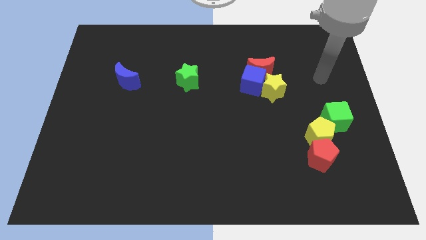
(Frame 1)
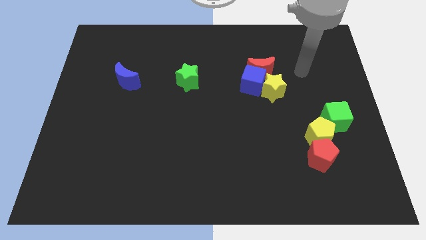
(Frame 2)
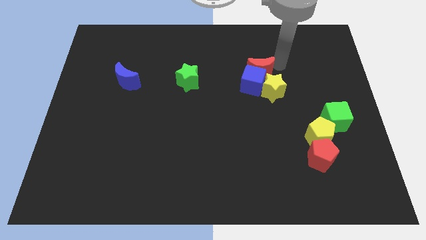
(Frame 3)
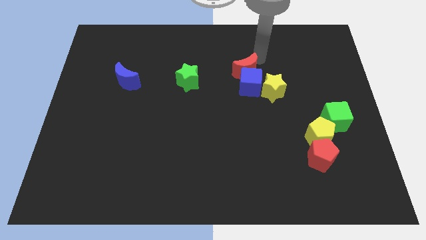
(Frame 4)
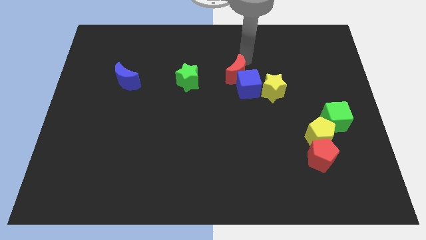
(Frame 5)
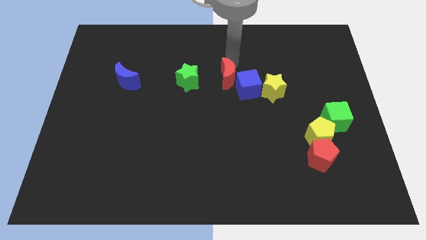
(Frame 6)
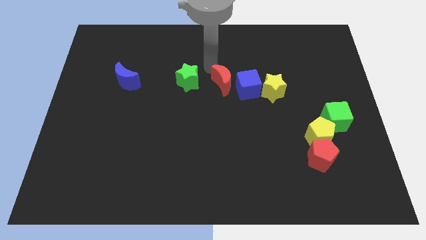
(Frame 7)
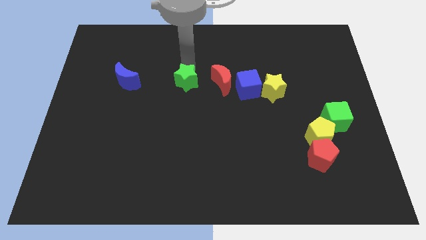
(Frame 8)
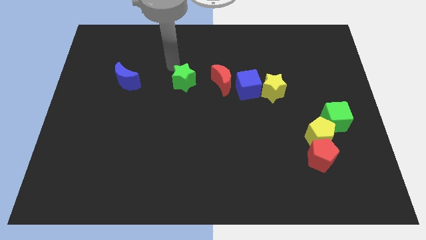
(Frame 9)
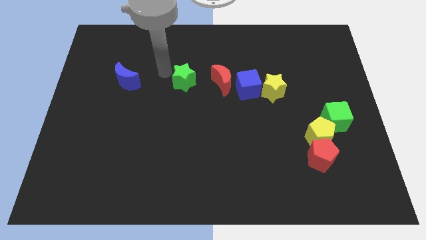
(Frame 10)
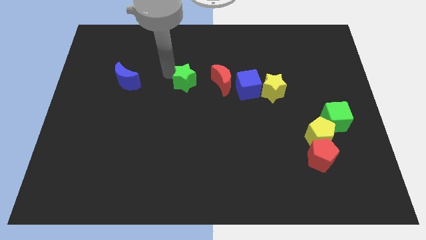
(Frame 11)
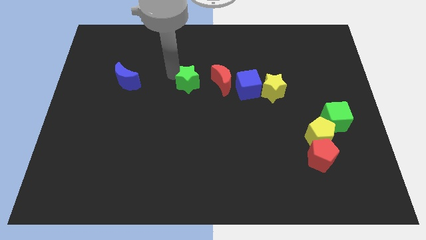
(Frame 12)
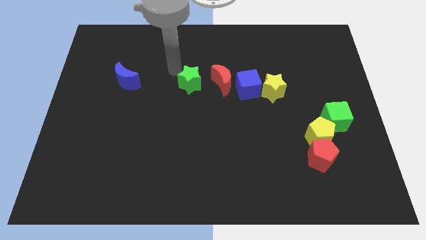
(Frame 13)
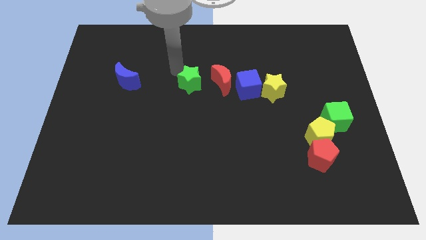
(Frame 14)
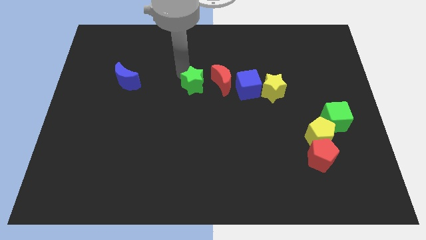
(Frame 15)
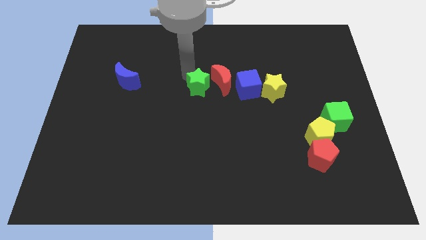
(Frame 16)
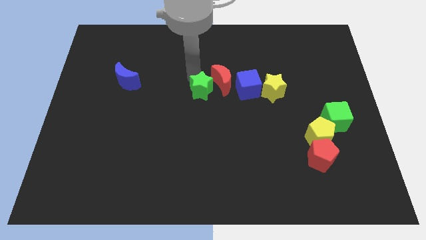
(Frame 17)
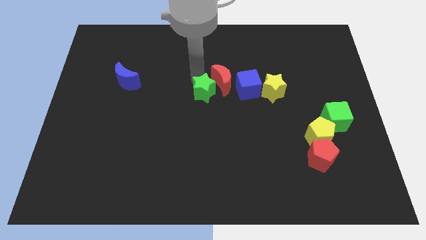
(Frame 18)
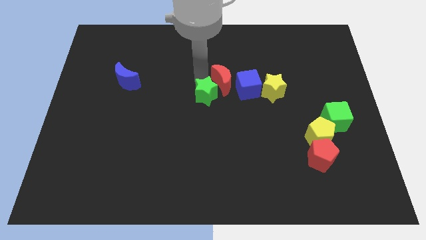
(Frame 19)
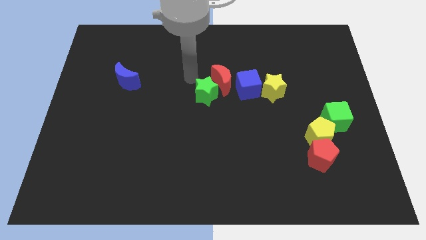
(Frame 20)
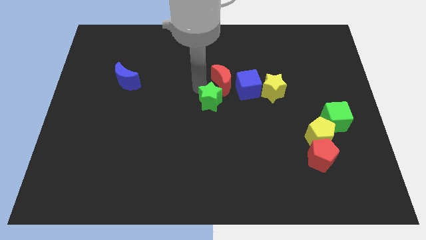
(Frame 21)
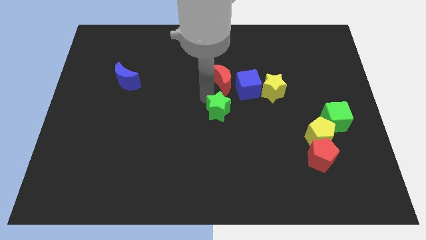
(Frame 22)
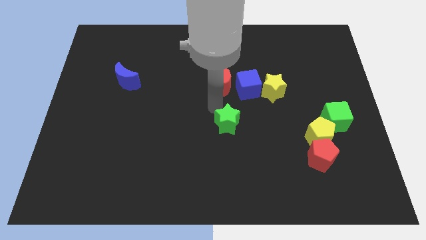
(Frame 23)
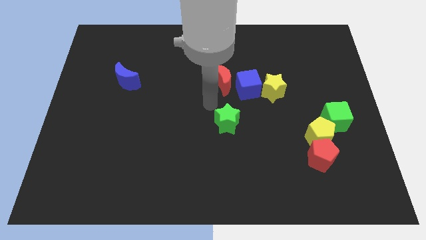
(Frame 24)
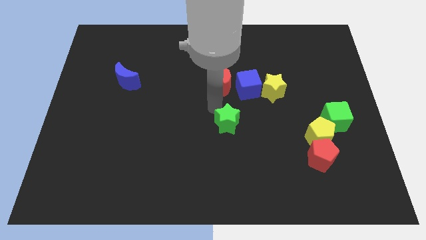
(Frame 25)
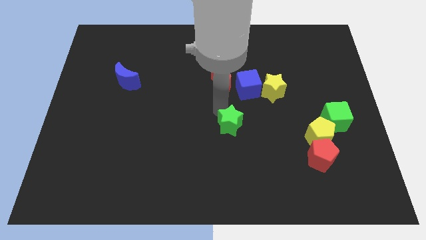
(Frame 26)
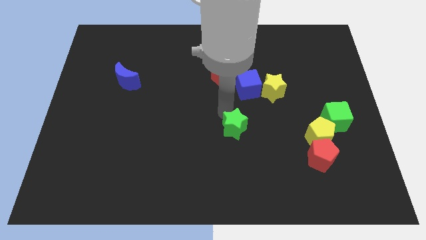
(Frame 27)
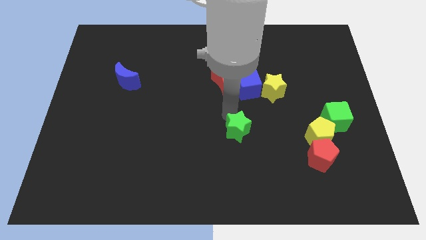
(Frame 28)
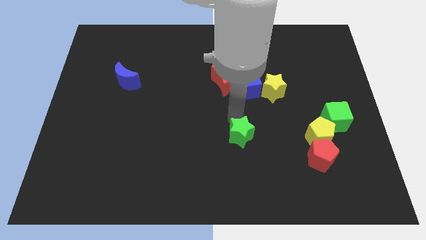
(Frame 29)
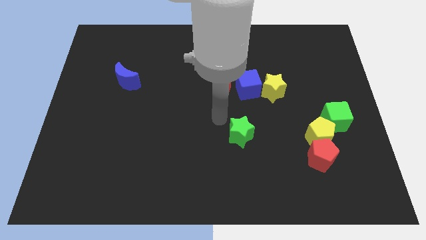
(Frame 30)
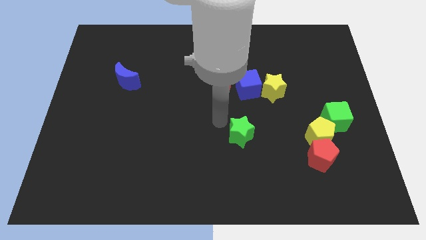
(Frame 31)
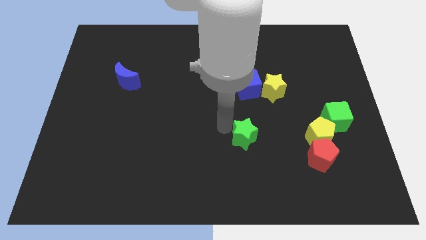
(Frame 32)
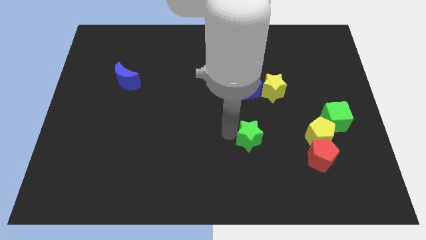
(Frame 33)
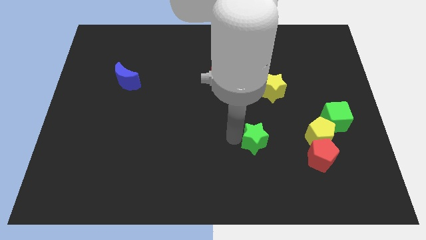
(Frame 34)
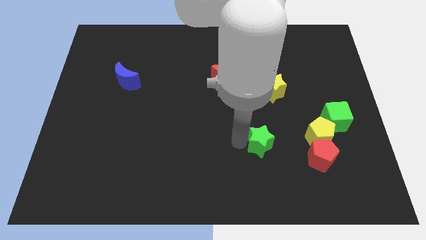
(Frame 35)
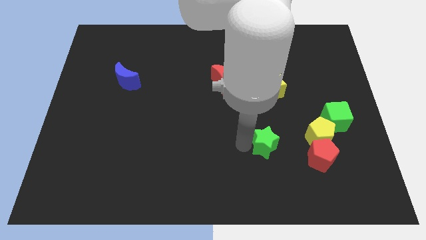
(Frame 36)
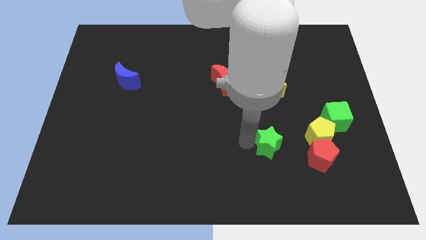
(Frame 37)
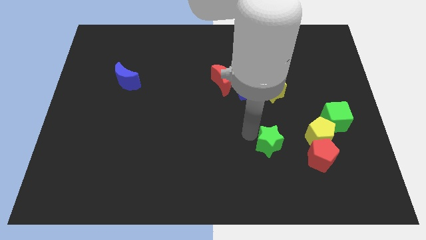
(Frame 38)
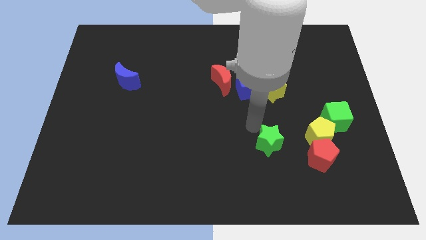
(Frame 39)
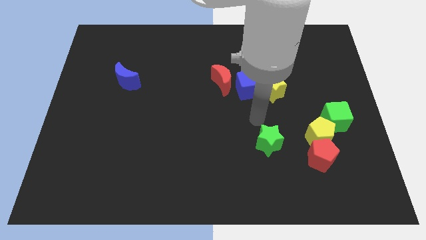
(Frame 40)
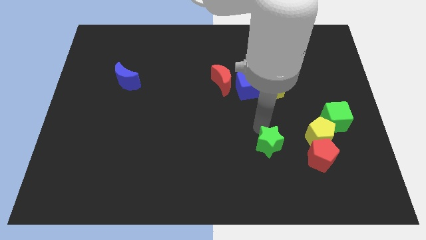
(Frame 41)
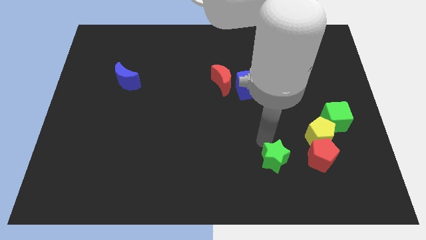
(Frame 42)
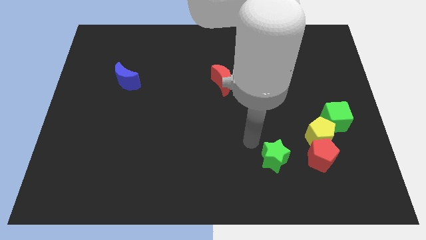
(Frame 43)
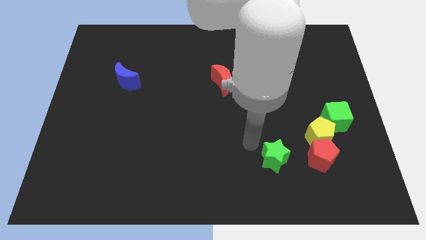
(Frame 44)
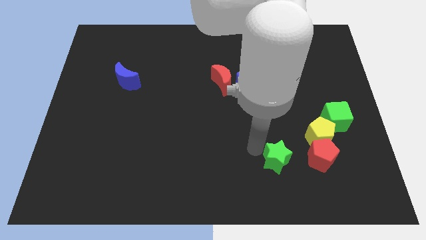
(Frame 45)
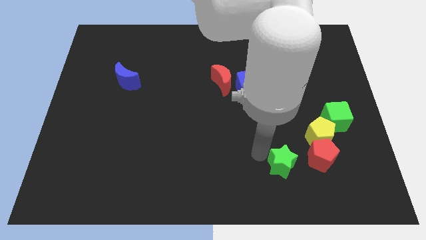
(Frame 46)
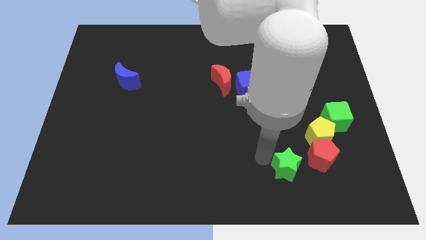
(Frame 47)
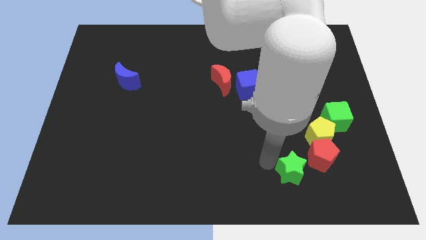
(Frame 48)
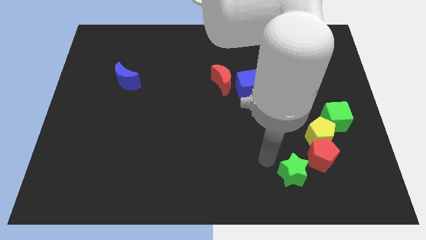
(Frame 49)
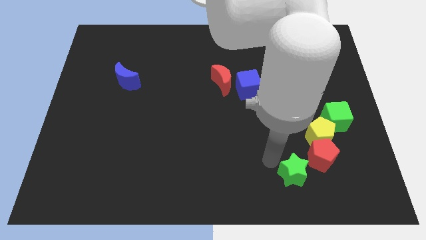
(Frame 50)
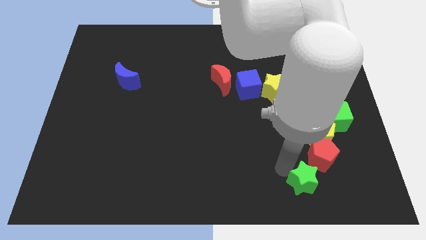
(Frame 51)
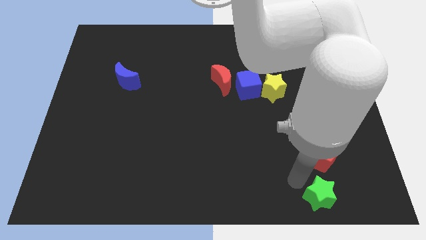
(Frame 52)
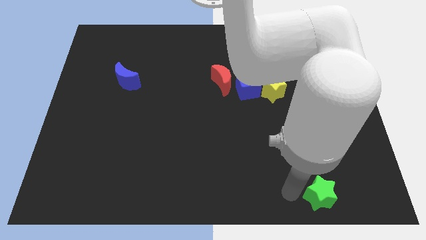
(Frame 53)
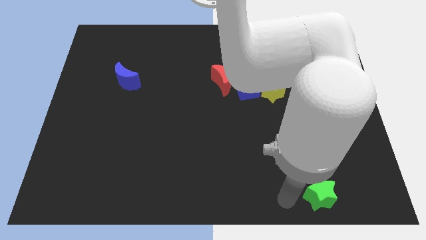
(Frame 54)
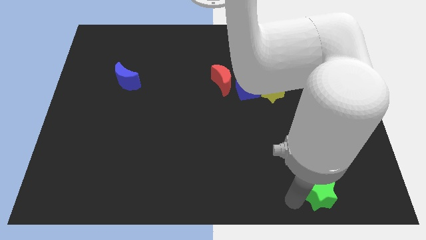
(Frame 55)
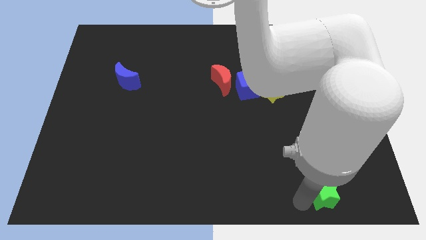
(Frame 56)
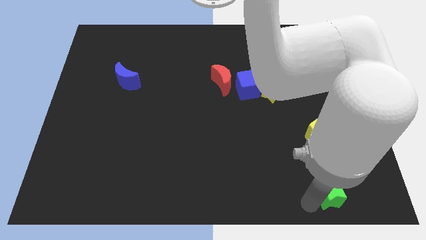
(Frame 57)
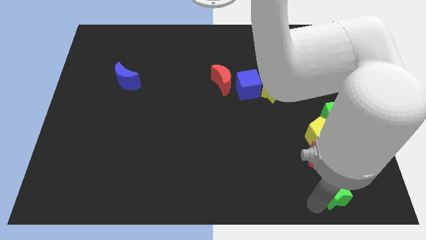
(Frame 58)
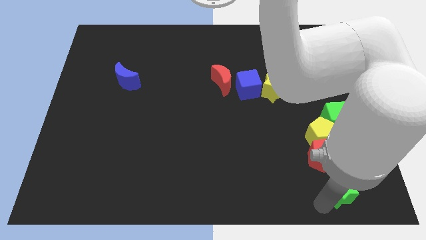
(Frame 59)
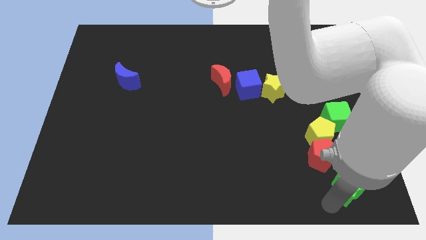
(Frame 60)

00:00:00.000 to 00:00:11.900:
put the green star to the bottom right corner
